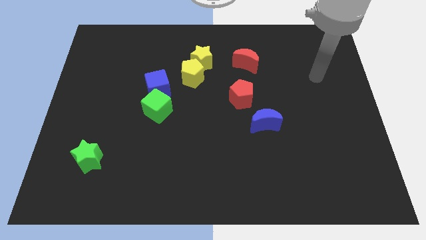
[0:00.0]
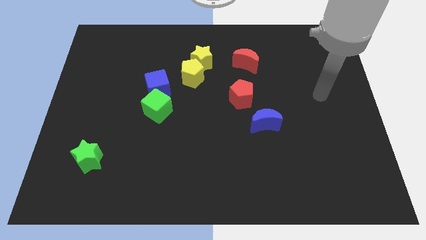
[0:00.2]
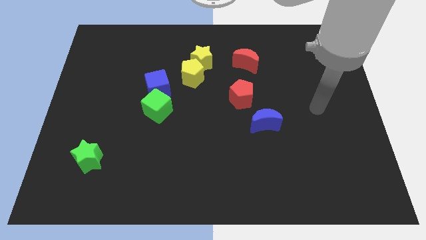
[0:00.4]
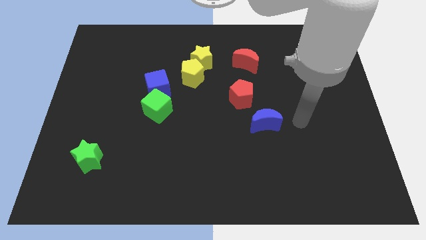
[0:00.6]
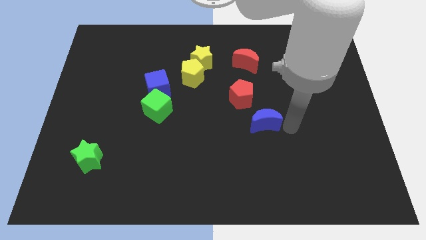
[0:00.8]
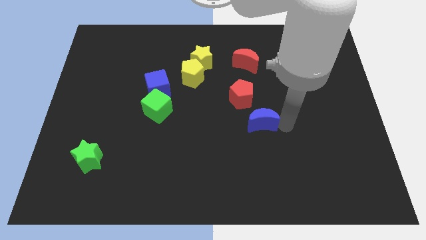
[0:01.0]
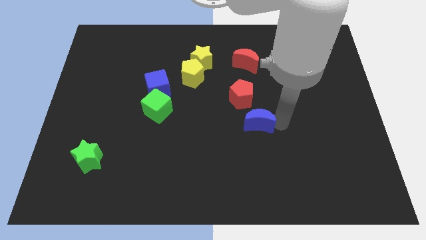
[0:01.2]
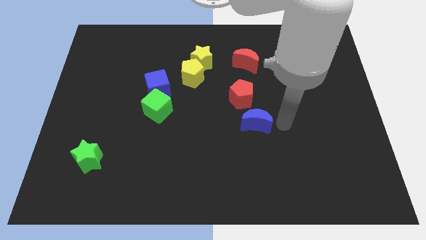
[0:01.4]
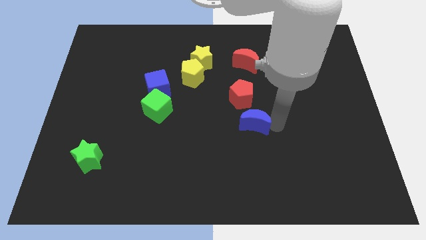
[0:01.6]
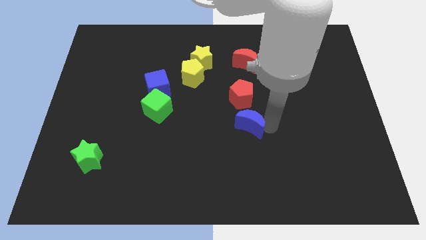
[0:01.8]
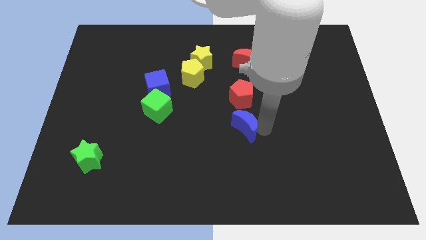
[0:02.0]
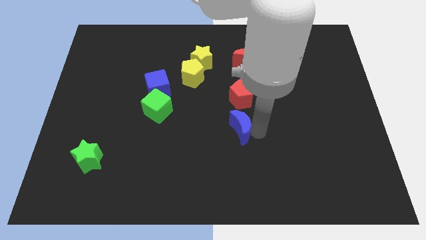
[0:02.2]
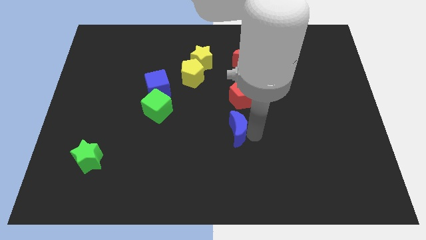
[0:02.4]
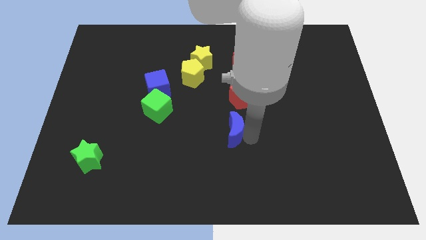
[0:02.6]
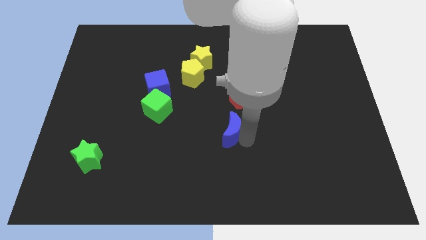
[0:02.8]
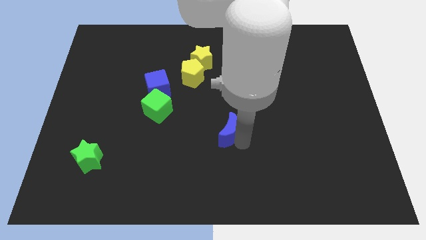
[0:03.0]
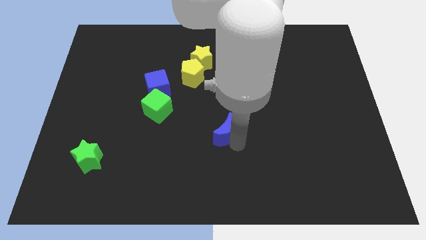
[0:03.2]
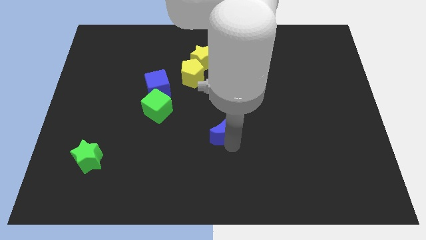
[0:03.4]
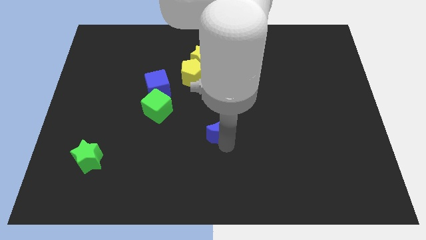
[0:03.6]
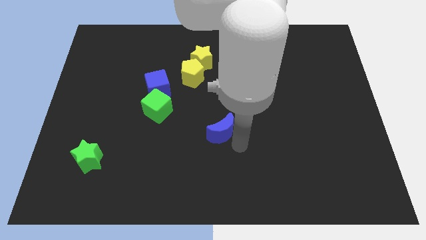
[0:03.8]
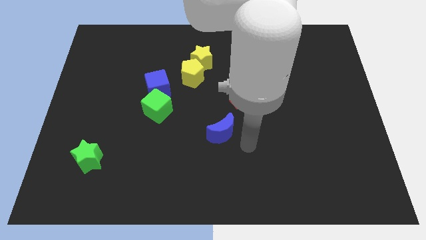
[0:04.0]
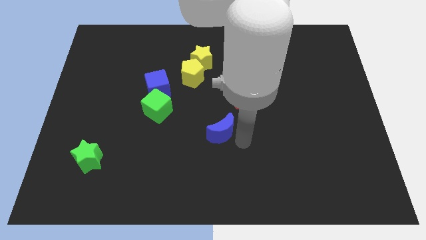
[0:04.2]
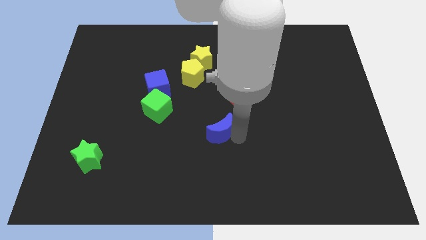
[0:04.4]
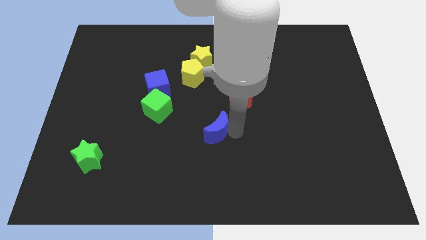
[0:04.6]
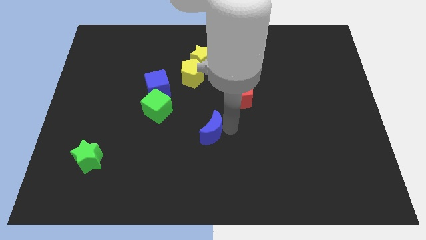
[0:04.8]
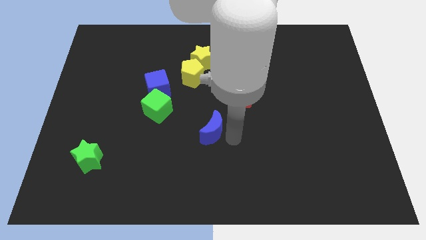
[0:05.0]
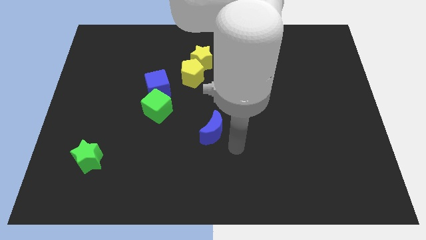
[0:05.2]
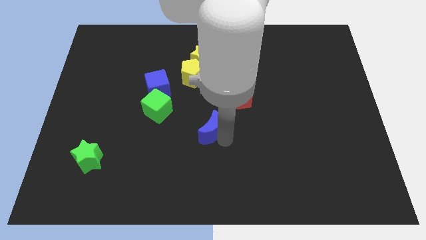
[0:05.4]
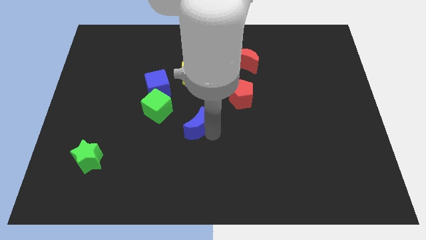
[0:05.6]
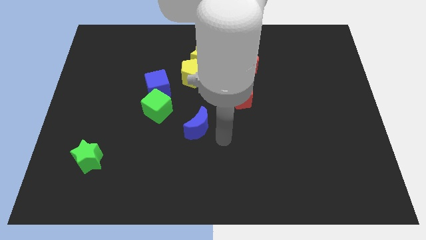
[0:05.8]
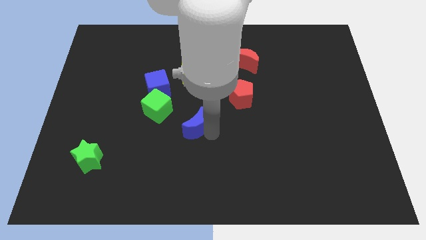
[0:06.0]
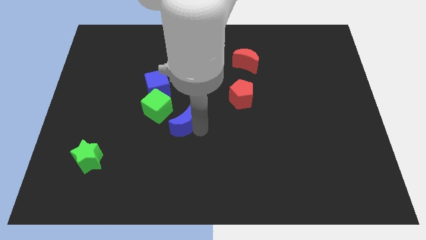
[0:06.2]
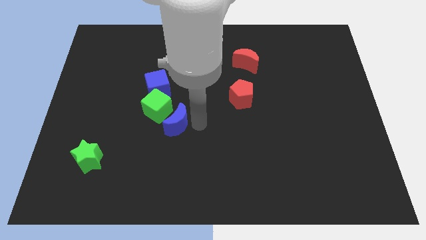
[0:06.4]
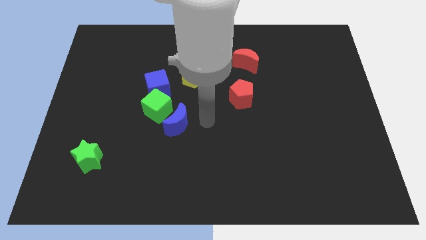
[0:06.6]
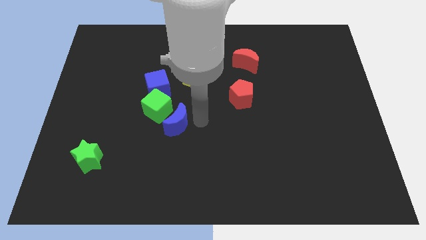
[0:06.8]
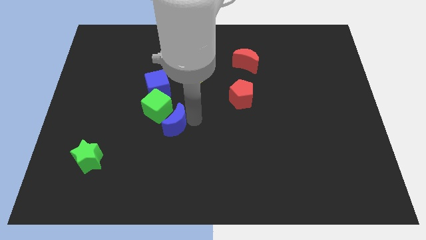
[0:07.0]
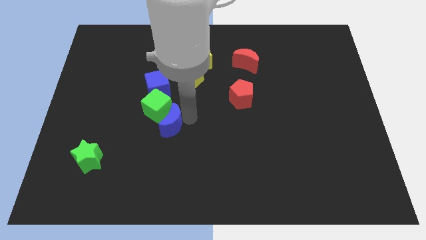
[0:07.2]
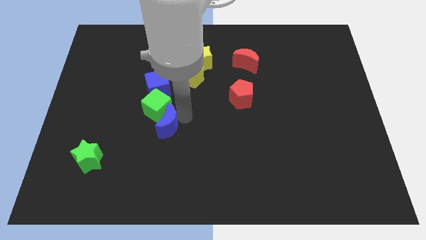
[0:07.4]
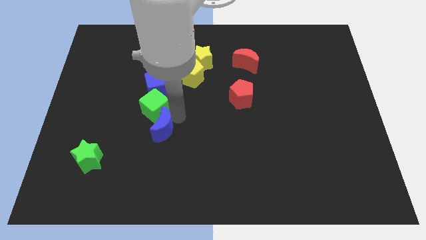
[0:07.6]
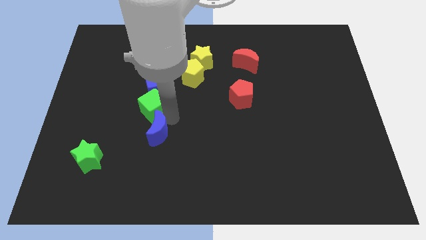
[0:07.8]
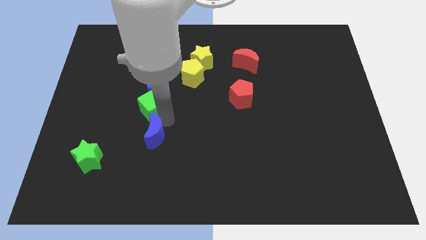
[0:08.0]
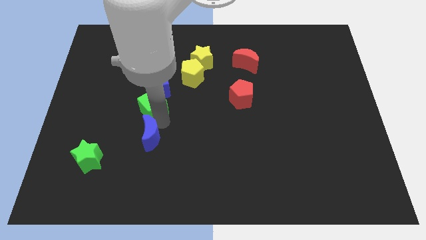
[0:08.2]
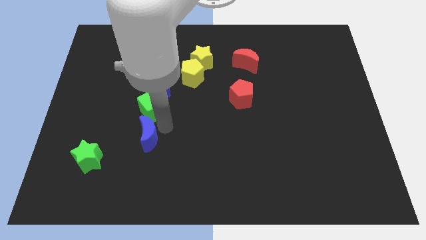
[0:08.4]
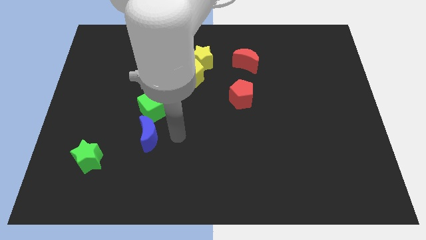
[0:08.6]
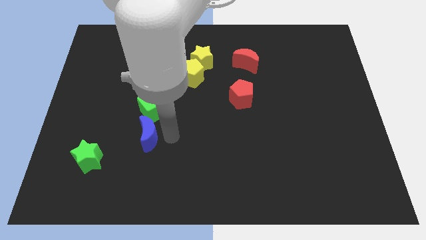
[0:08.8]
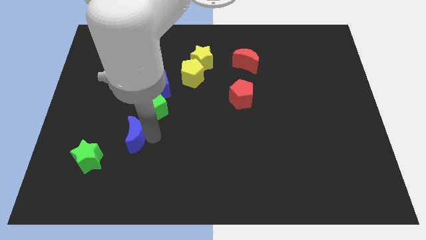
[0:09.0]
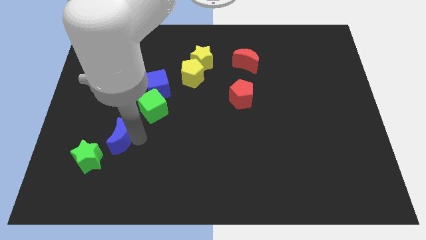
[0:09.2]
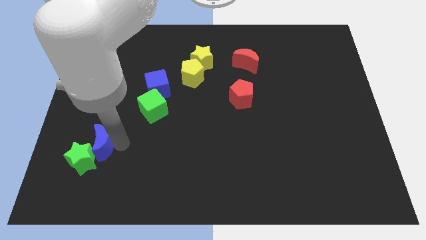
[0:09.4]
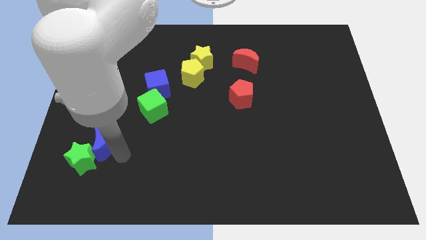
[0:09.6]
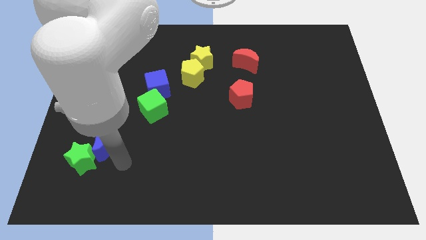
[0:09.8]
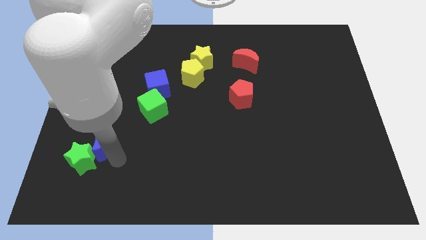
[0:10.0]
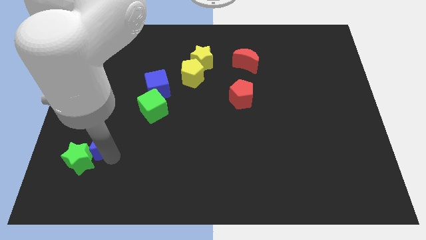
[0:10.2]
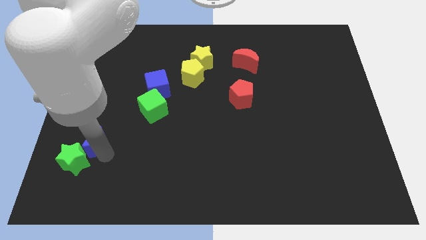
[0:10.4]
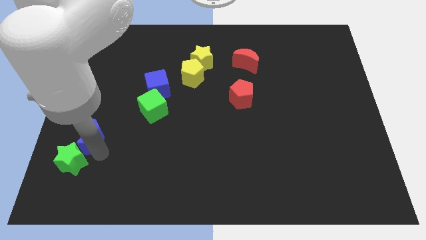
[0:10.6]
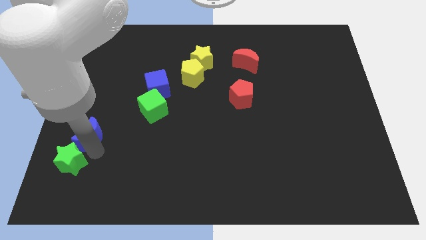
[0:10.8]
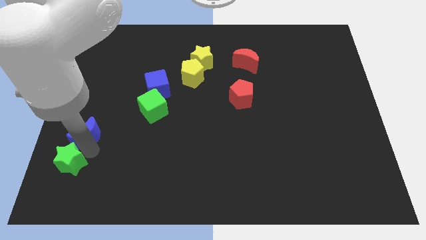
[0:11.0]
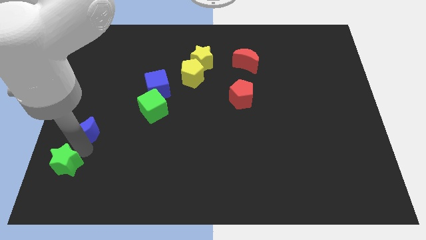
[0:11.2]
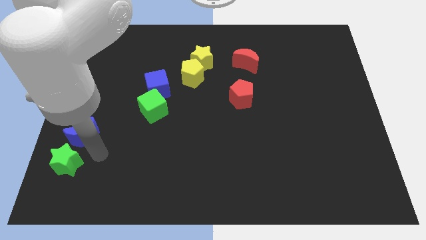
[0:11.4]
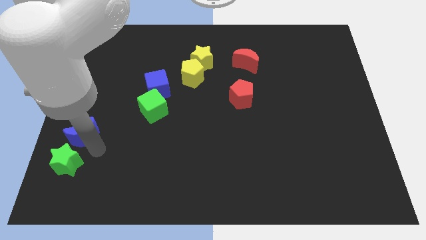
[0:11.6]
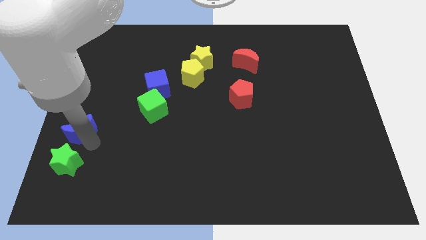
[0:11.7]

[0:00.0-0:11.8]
put the blue moon to the left side of the board

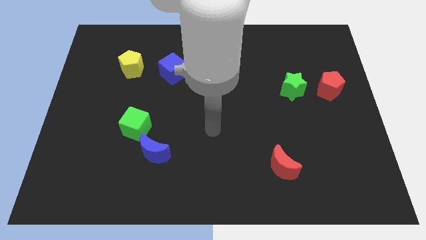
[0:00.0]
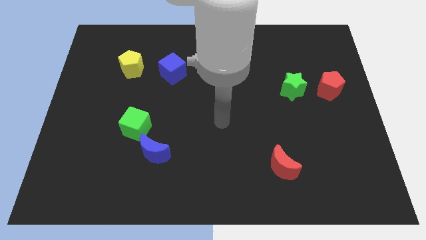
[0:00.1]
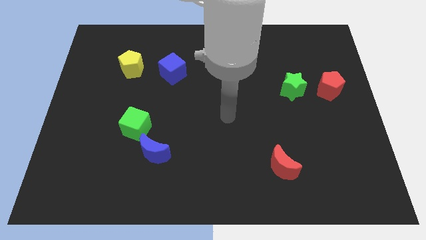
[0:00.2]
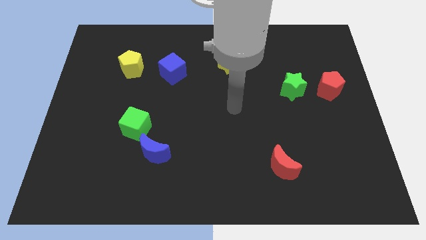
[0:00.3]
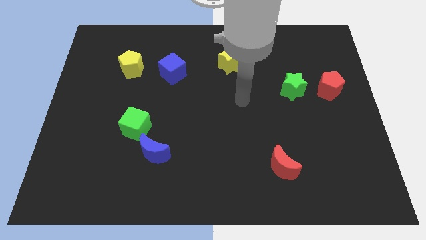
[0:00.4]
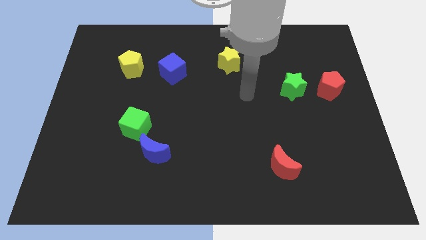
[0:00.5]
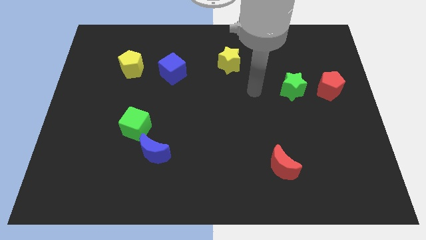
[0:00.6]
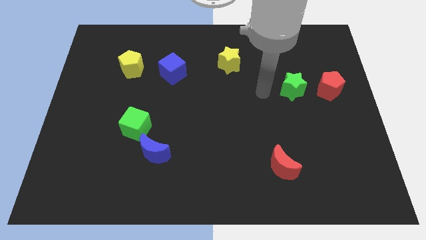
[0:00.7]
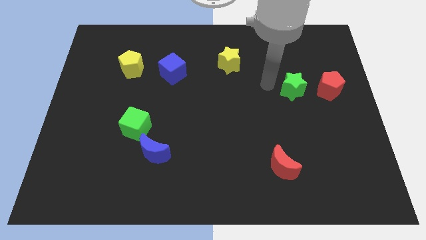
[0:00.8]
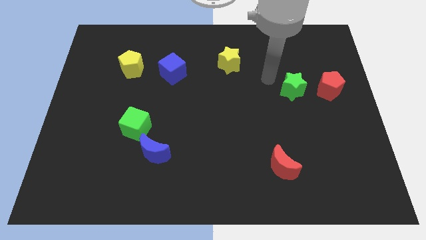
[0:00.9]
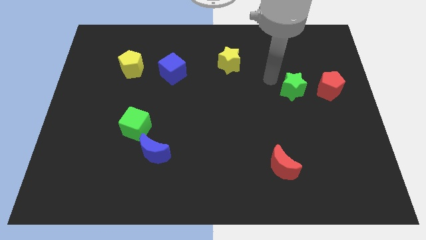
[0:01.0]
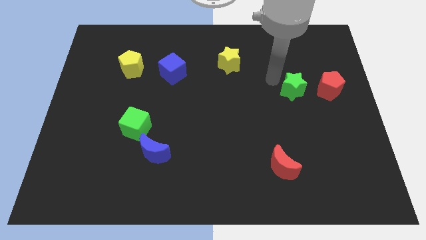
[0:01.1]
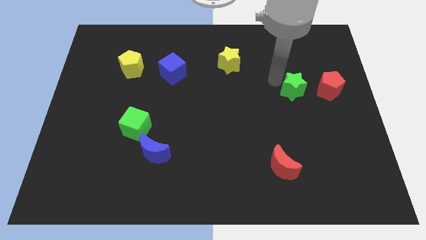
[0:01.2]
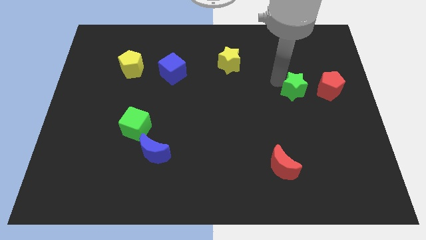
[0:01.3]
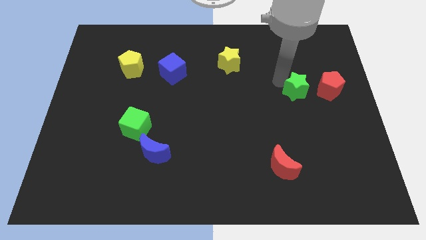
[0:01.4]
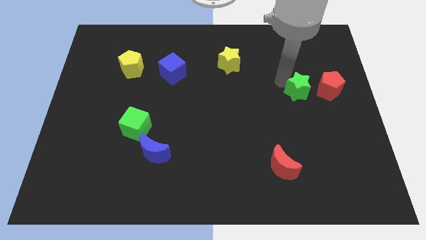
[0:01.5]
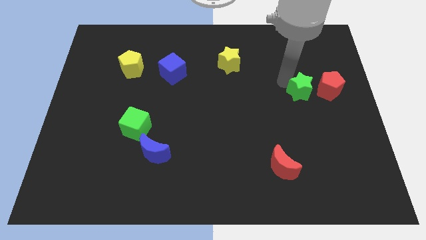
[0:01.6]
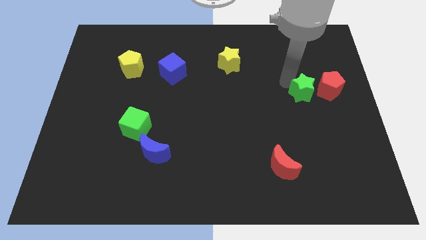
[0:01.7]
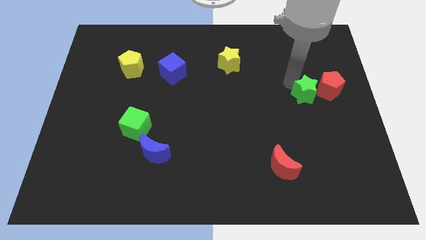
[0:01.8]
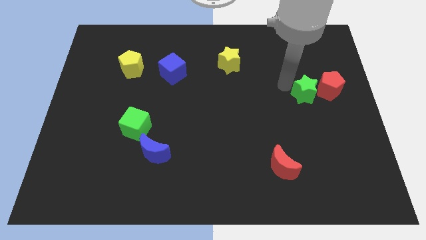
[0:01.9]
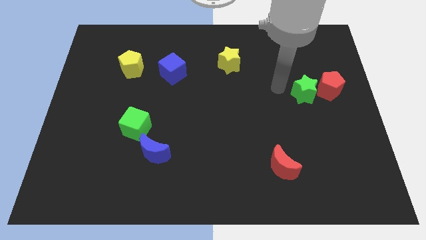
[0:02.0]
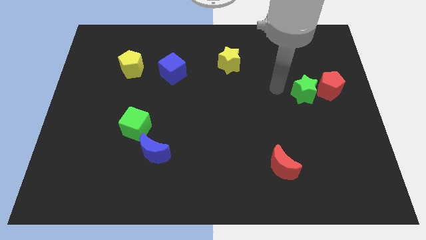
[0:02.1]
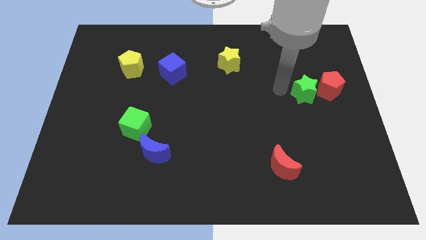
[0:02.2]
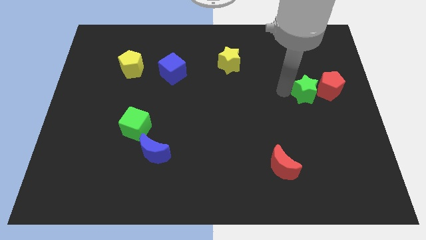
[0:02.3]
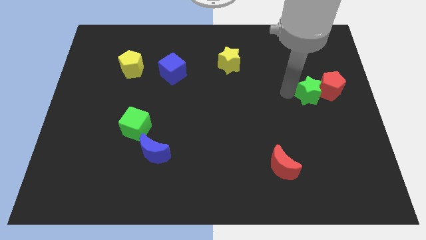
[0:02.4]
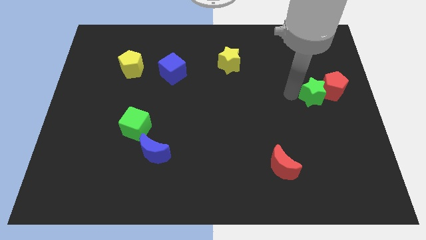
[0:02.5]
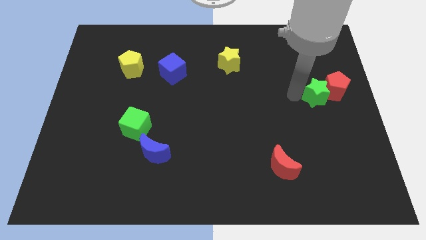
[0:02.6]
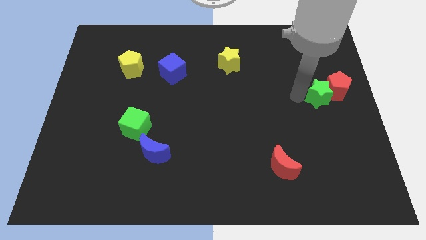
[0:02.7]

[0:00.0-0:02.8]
put the green star to the right side of the board
